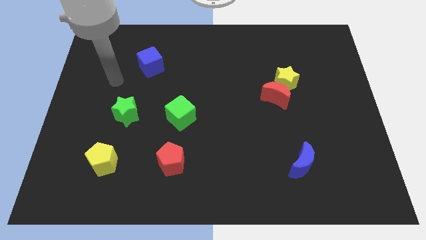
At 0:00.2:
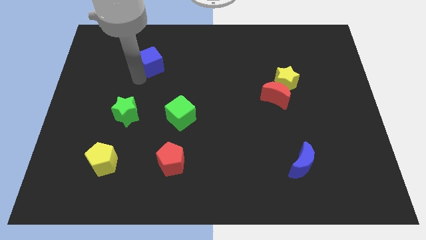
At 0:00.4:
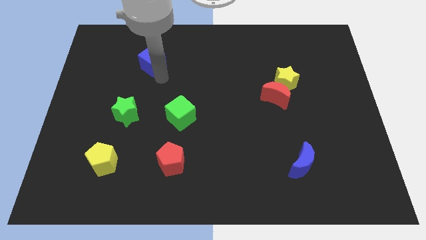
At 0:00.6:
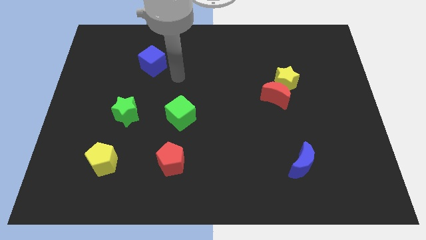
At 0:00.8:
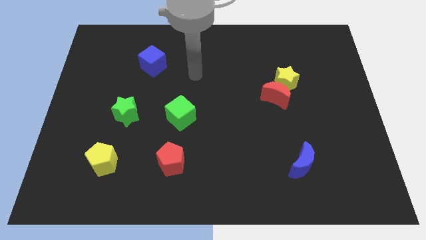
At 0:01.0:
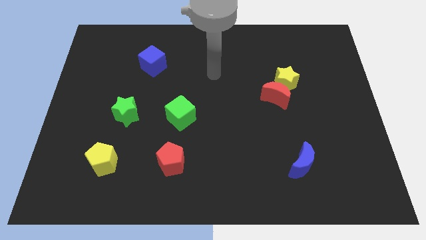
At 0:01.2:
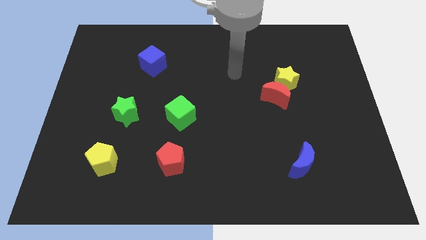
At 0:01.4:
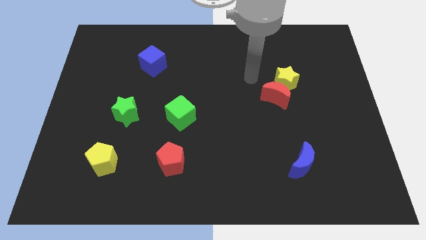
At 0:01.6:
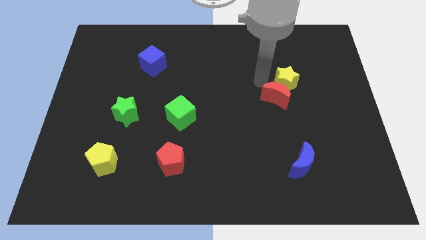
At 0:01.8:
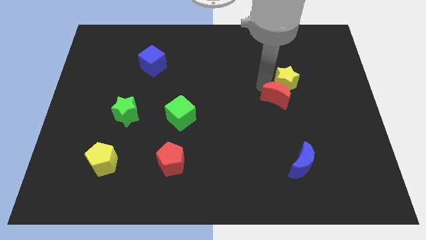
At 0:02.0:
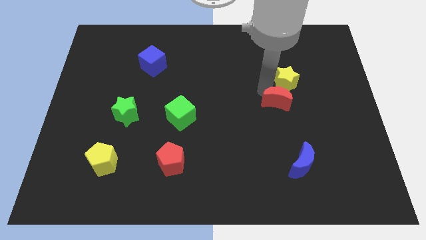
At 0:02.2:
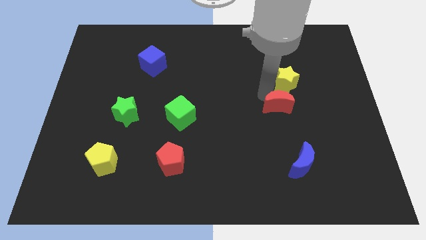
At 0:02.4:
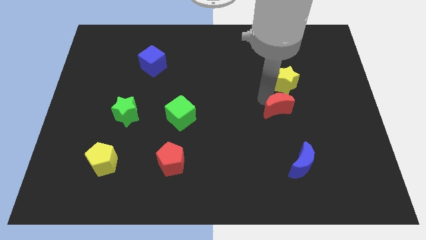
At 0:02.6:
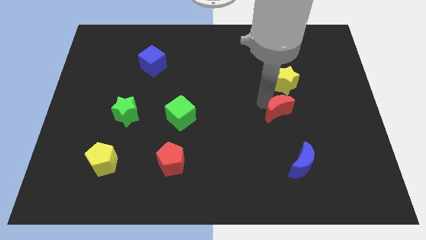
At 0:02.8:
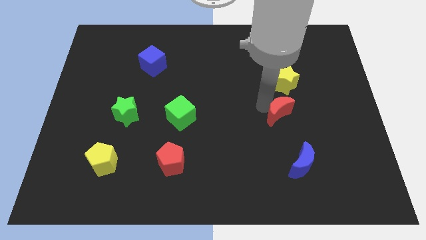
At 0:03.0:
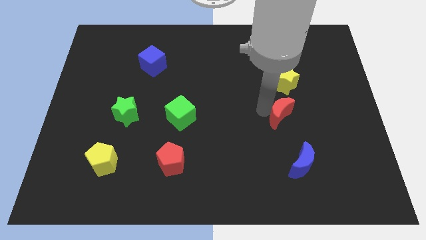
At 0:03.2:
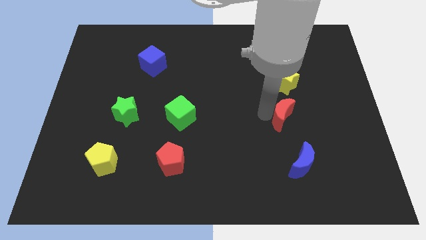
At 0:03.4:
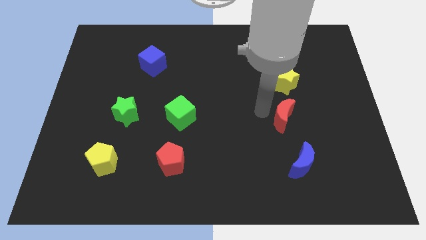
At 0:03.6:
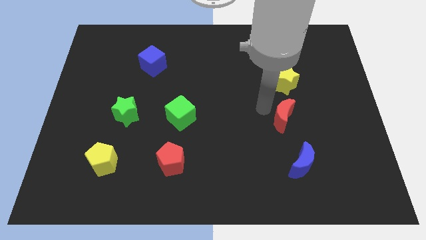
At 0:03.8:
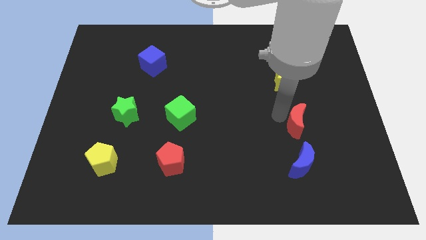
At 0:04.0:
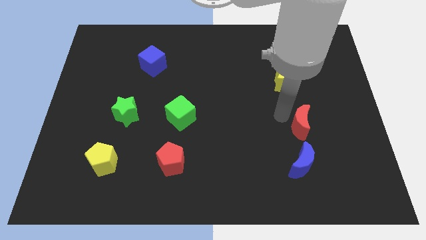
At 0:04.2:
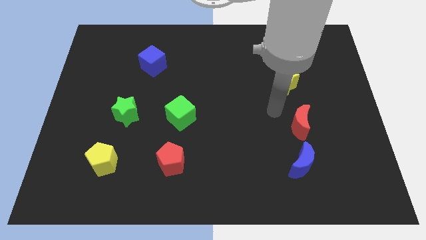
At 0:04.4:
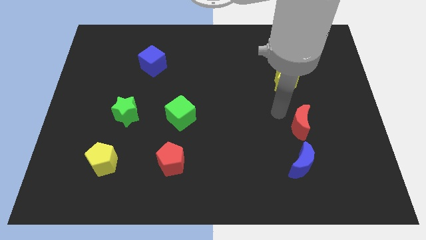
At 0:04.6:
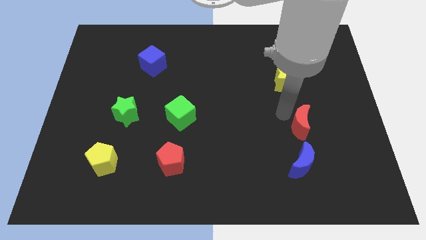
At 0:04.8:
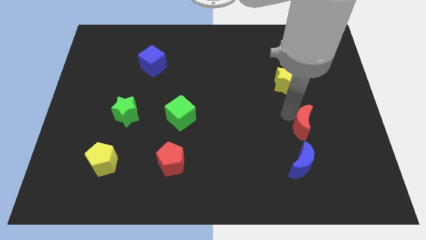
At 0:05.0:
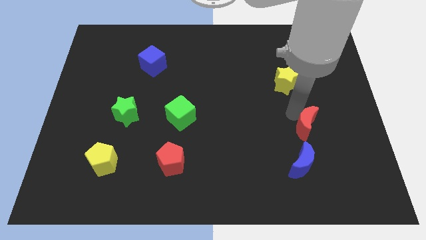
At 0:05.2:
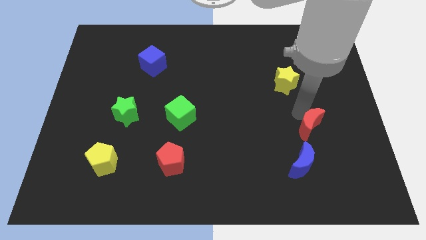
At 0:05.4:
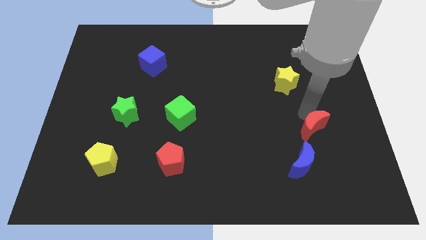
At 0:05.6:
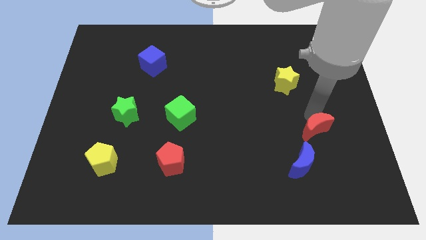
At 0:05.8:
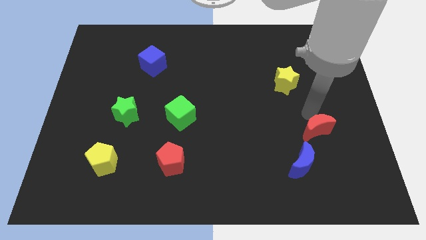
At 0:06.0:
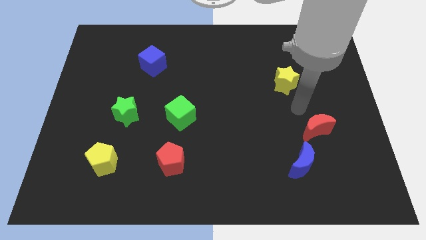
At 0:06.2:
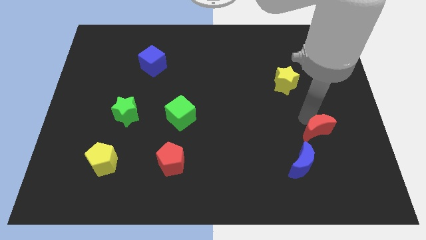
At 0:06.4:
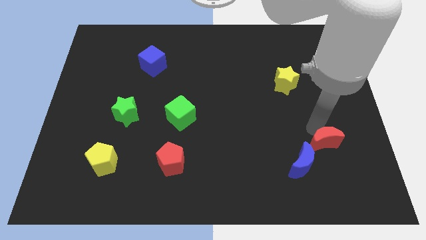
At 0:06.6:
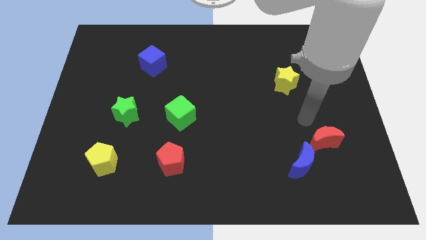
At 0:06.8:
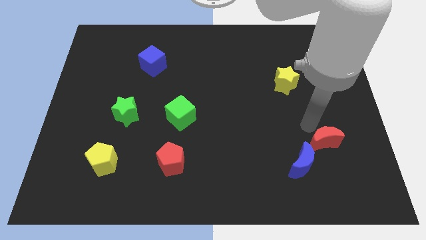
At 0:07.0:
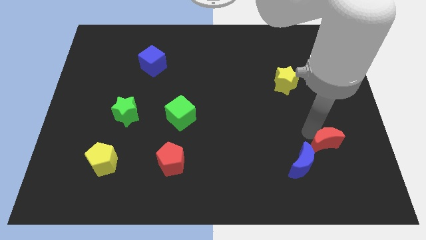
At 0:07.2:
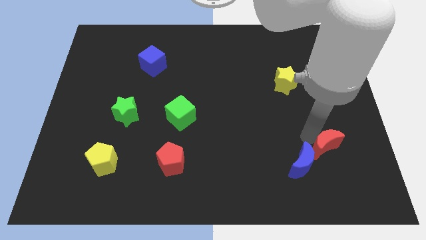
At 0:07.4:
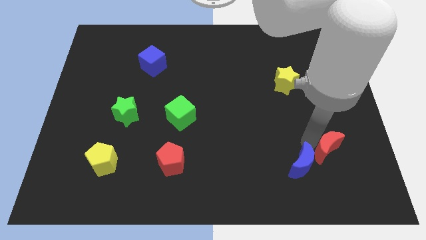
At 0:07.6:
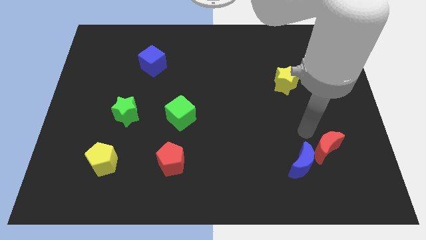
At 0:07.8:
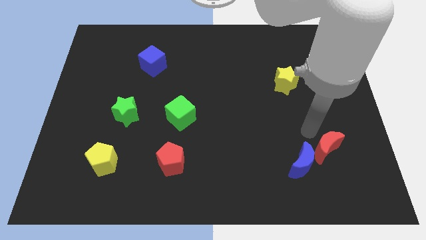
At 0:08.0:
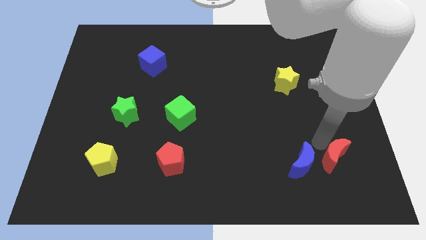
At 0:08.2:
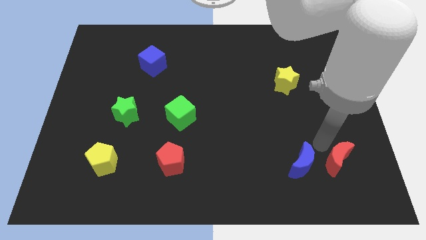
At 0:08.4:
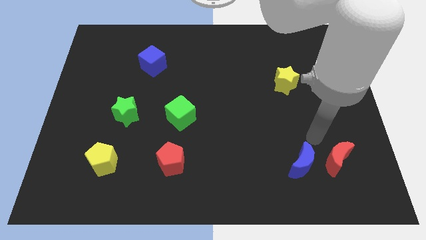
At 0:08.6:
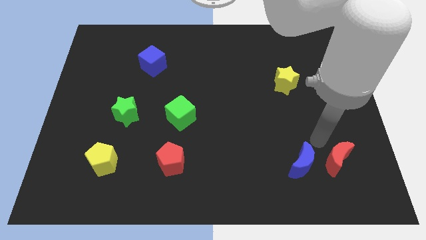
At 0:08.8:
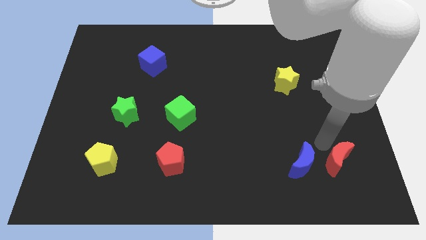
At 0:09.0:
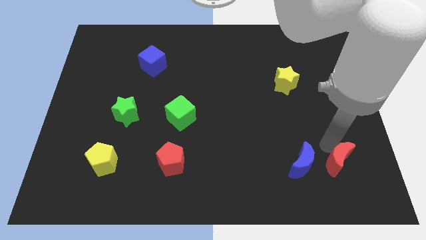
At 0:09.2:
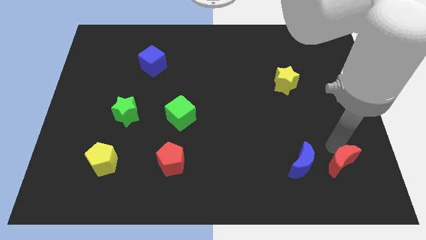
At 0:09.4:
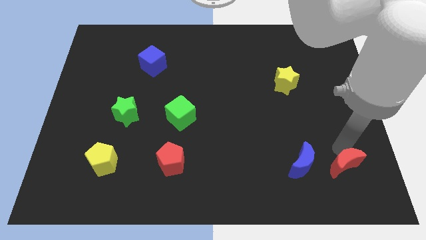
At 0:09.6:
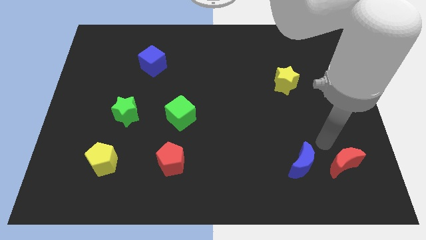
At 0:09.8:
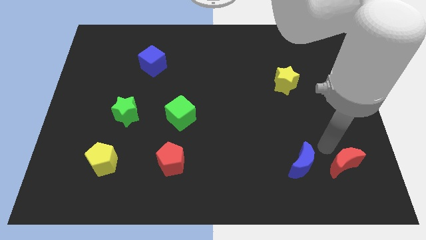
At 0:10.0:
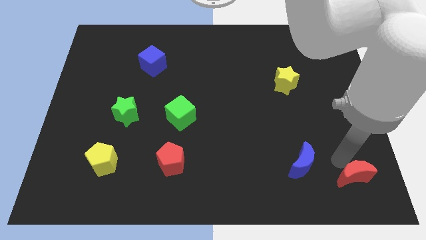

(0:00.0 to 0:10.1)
push the red moon to the bottom right of the board

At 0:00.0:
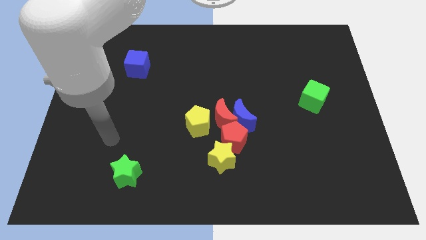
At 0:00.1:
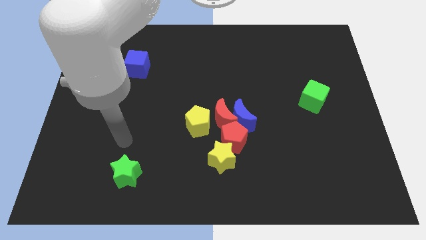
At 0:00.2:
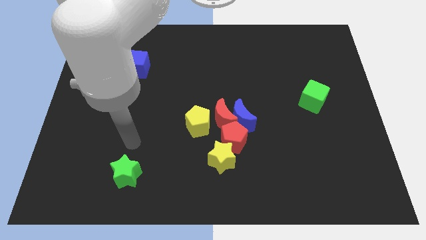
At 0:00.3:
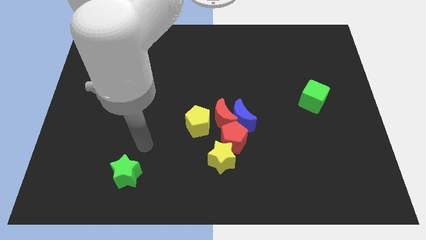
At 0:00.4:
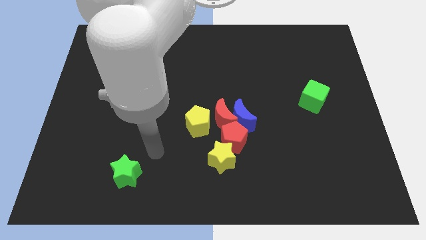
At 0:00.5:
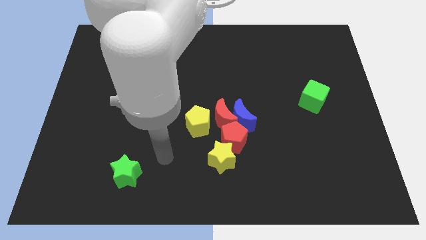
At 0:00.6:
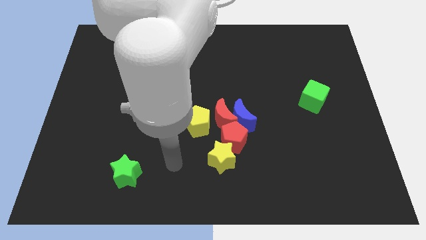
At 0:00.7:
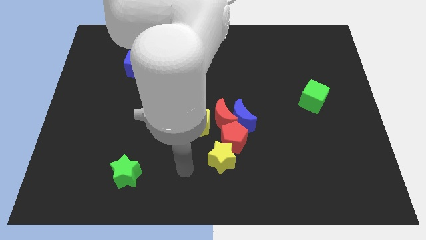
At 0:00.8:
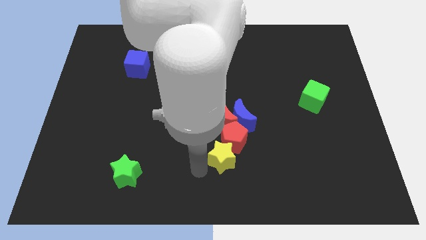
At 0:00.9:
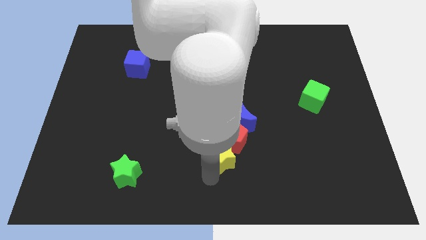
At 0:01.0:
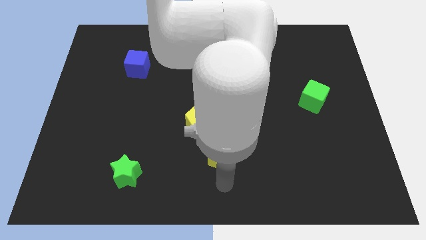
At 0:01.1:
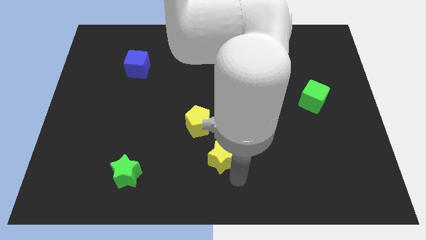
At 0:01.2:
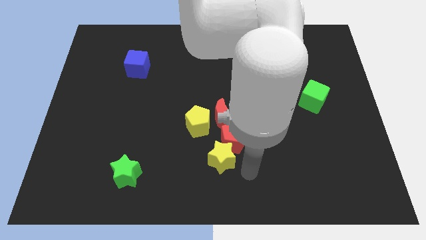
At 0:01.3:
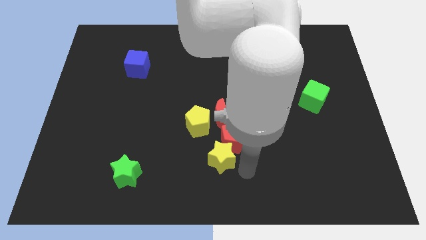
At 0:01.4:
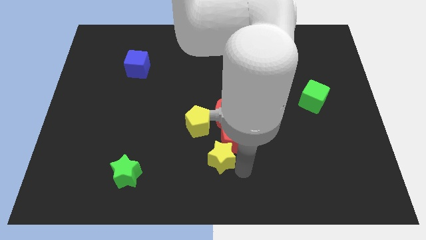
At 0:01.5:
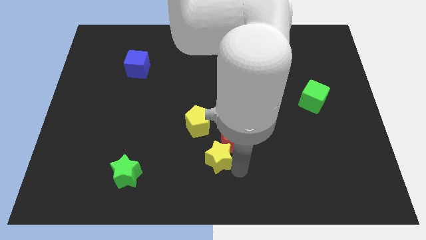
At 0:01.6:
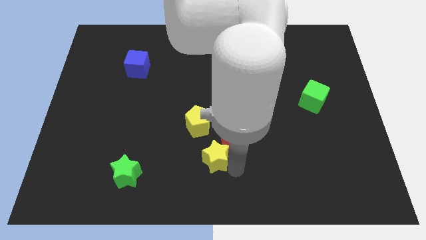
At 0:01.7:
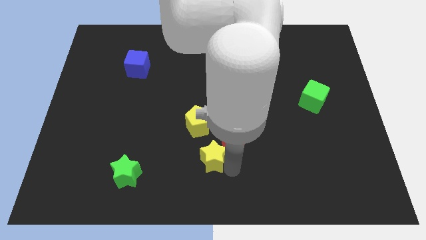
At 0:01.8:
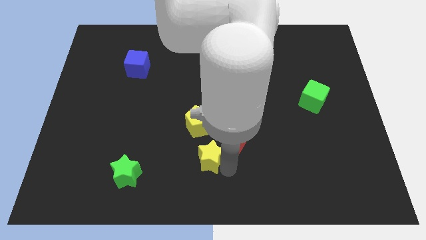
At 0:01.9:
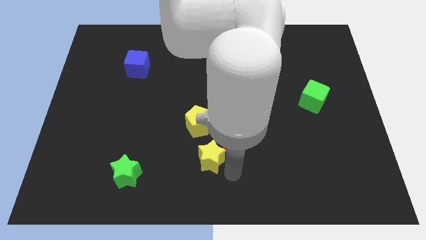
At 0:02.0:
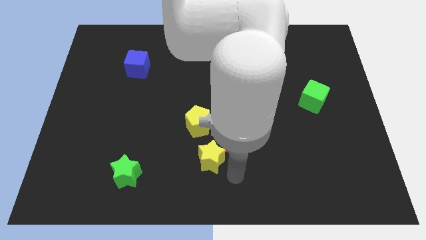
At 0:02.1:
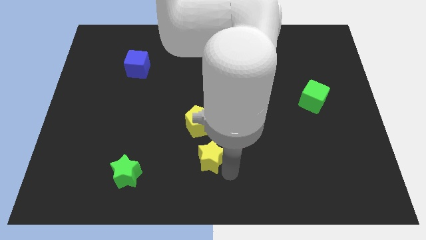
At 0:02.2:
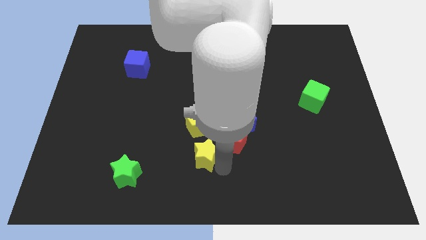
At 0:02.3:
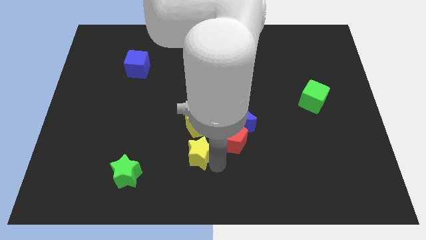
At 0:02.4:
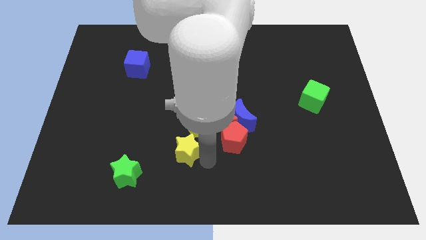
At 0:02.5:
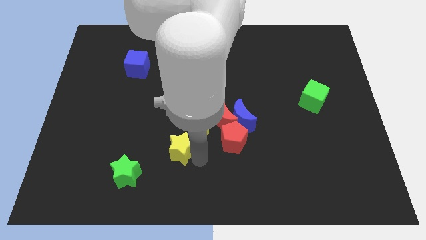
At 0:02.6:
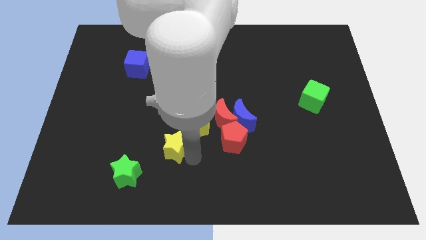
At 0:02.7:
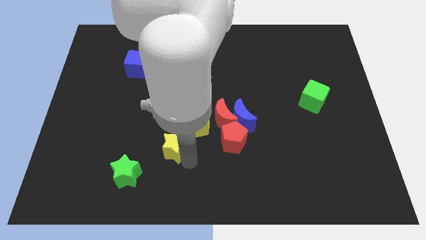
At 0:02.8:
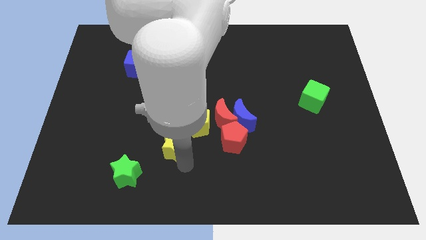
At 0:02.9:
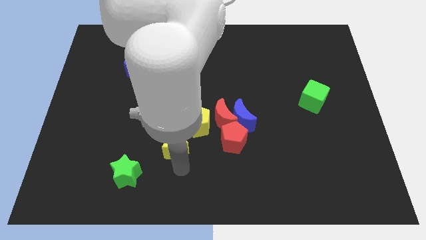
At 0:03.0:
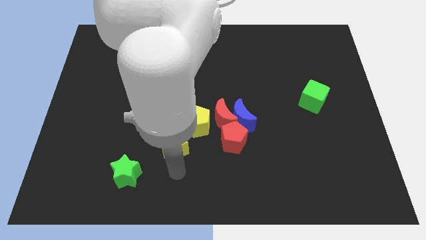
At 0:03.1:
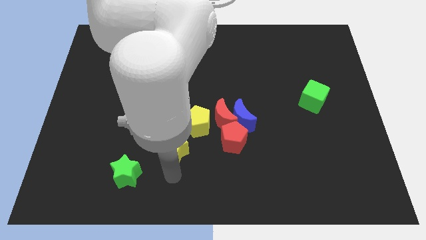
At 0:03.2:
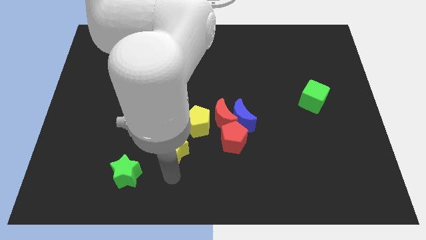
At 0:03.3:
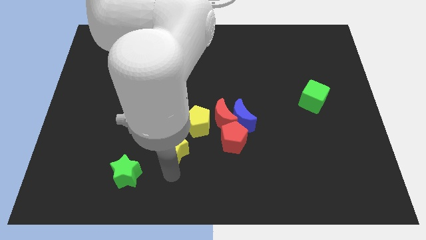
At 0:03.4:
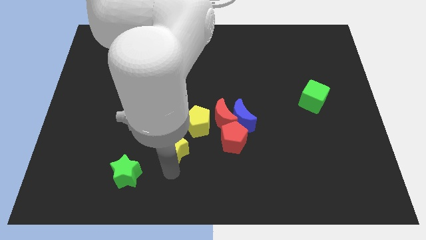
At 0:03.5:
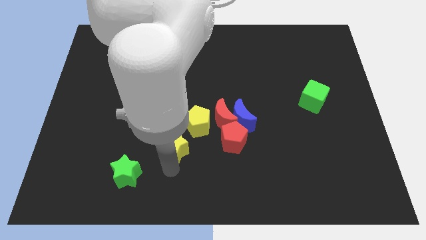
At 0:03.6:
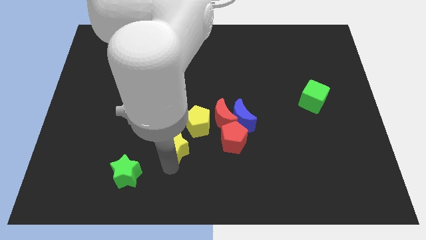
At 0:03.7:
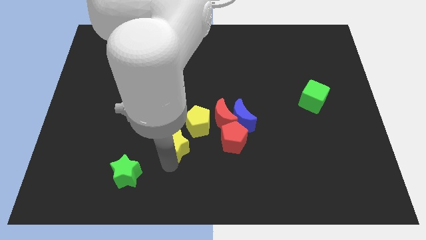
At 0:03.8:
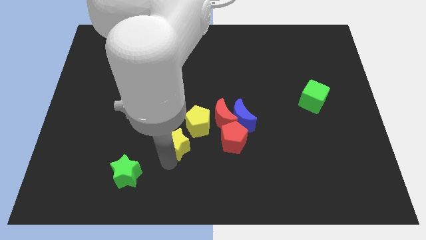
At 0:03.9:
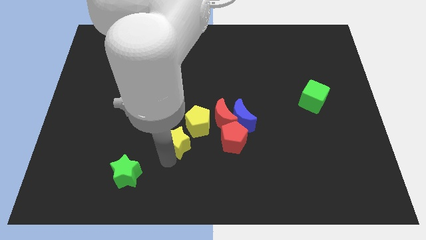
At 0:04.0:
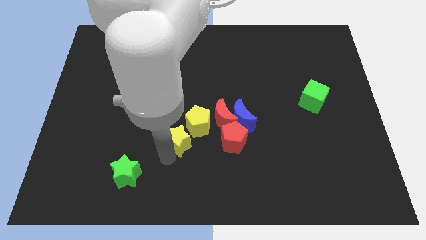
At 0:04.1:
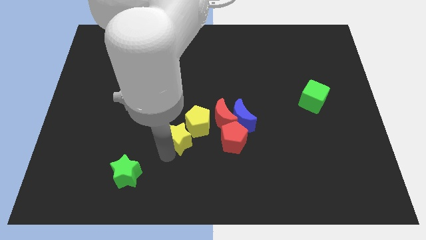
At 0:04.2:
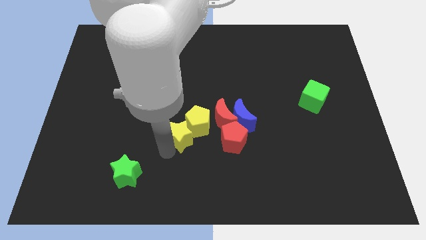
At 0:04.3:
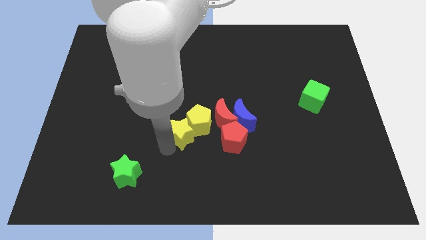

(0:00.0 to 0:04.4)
put the yellow star to the center of the board
